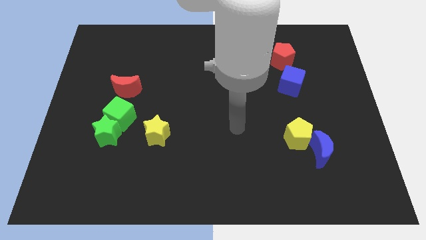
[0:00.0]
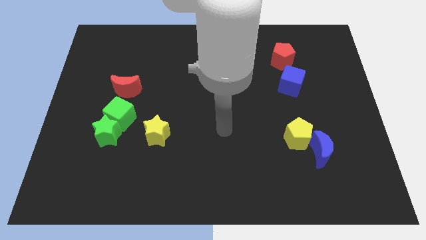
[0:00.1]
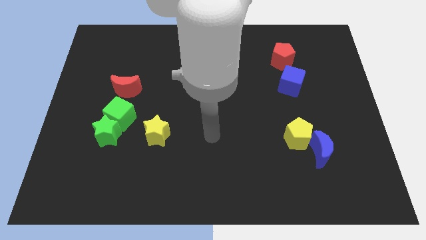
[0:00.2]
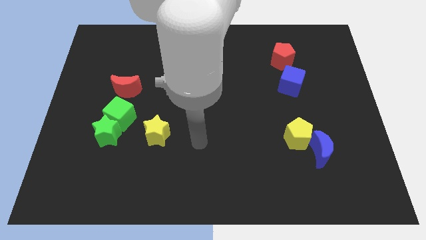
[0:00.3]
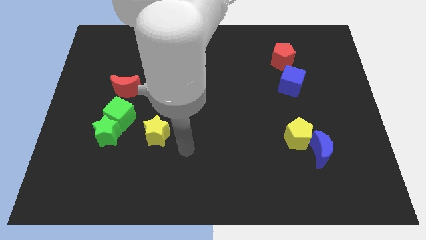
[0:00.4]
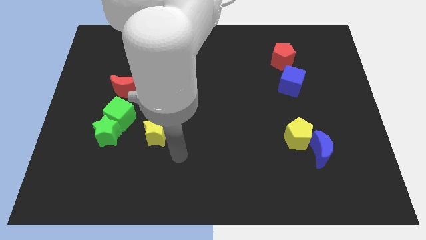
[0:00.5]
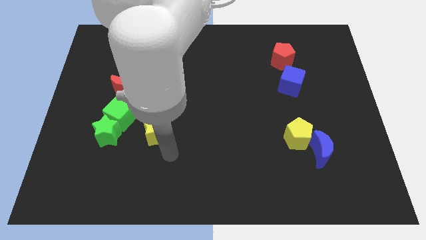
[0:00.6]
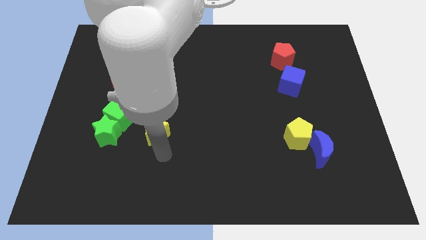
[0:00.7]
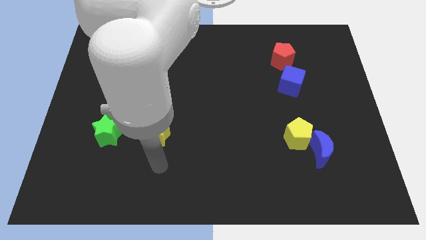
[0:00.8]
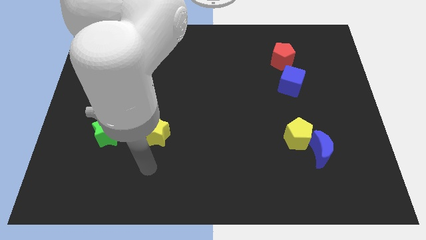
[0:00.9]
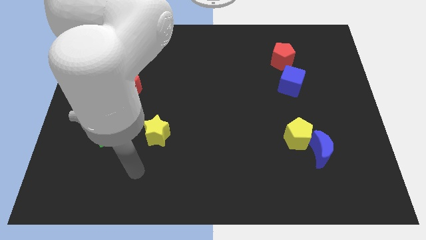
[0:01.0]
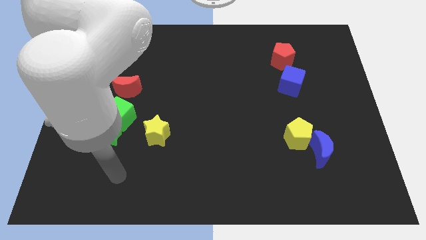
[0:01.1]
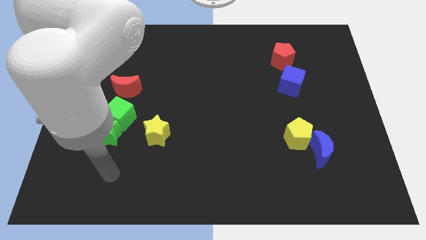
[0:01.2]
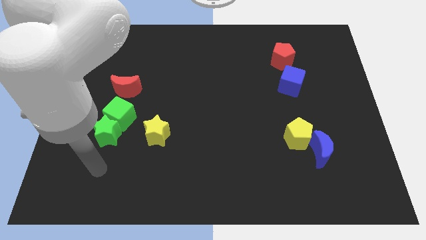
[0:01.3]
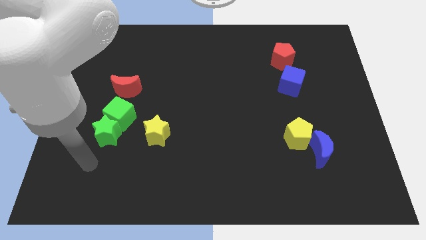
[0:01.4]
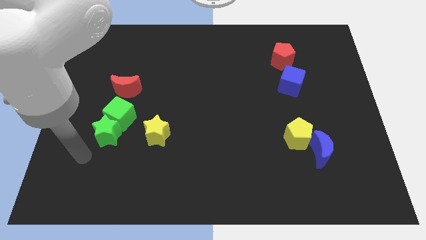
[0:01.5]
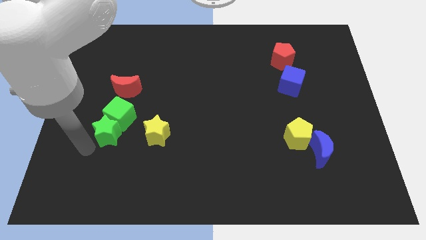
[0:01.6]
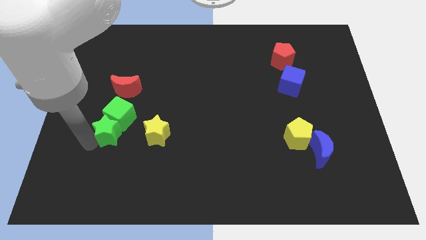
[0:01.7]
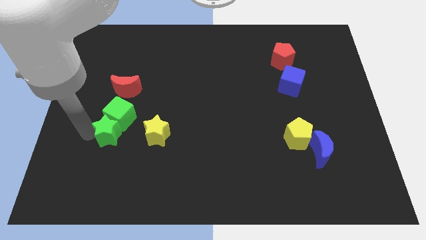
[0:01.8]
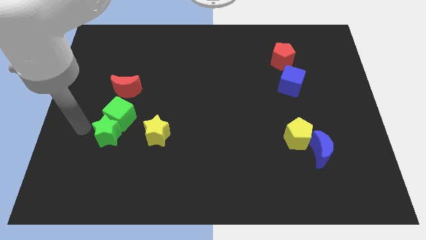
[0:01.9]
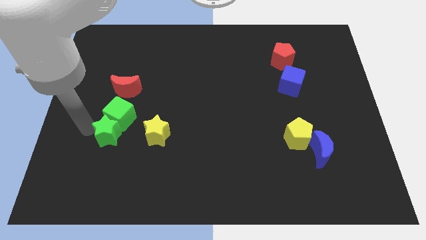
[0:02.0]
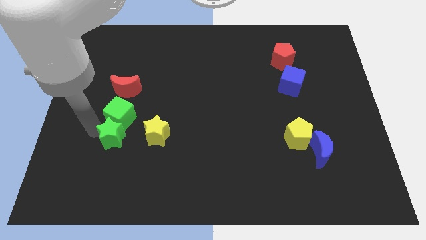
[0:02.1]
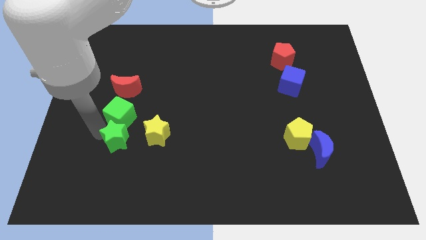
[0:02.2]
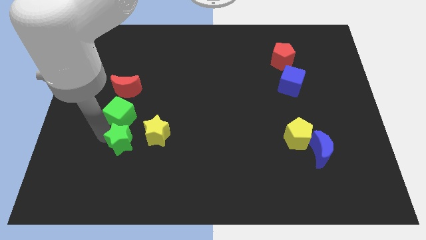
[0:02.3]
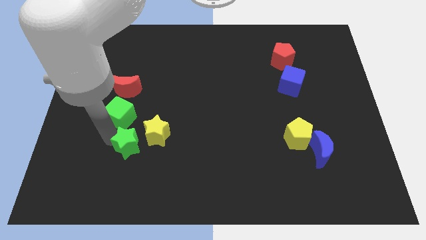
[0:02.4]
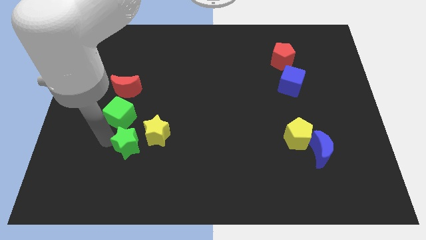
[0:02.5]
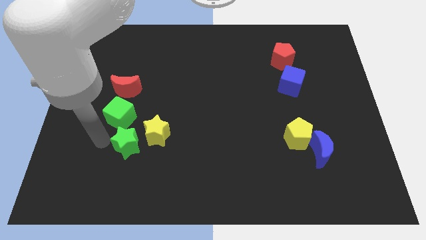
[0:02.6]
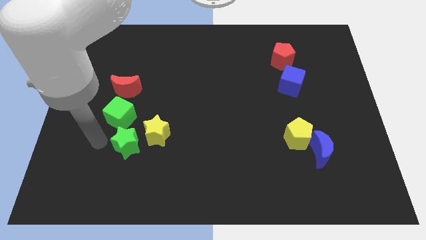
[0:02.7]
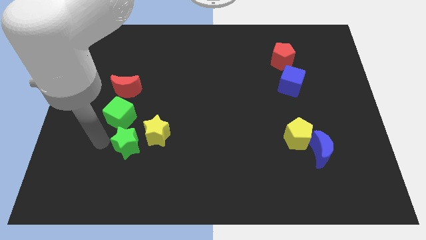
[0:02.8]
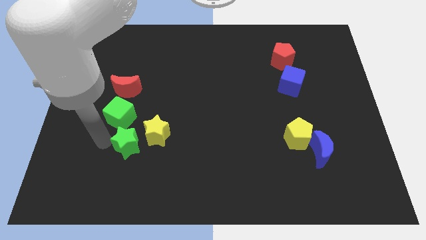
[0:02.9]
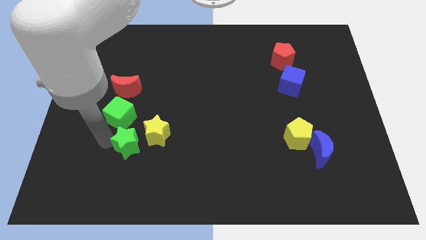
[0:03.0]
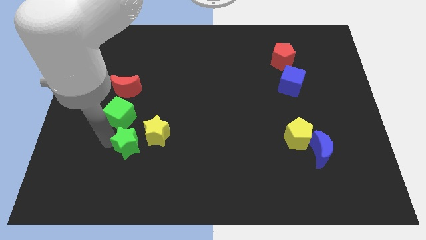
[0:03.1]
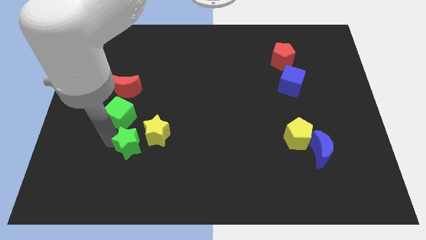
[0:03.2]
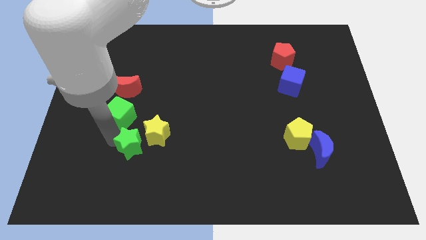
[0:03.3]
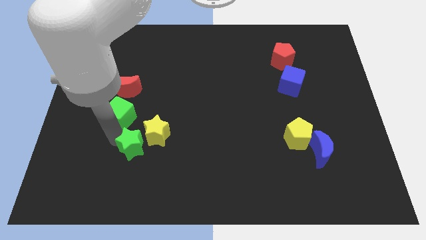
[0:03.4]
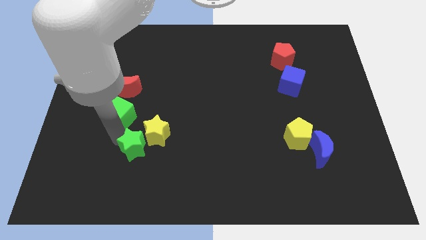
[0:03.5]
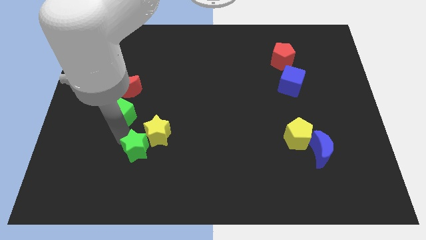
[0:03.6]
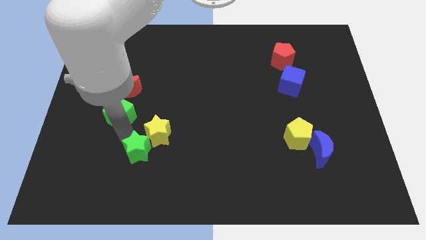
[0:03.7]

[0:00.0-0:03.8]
move the green star slightly right

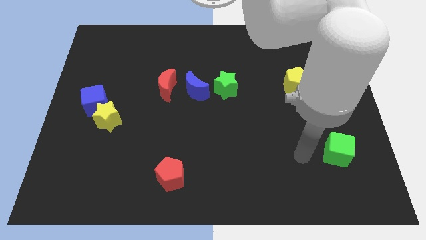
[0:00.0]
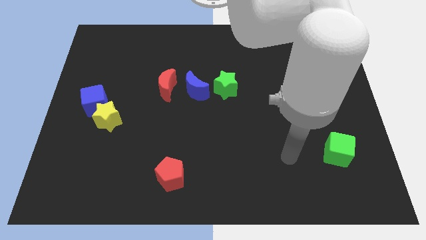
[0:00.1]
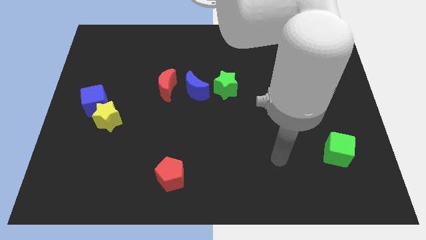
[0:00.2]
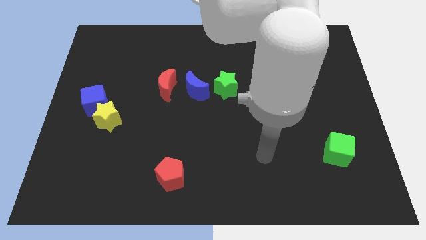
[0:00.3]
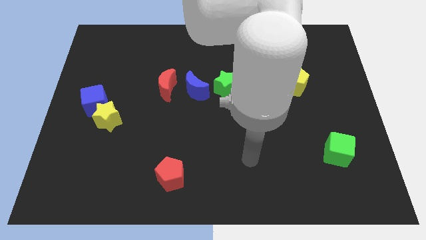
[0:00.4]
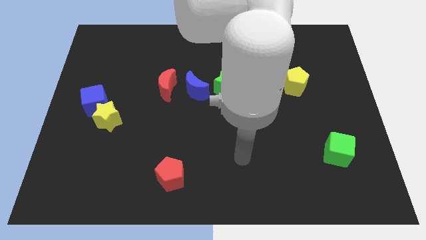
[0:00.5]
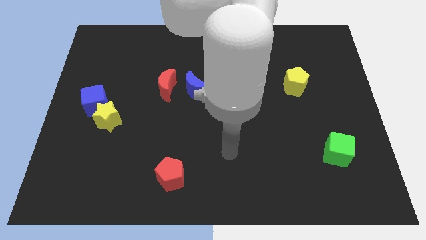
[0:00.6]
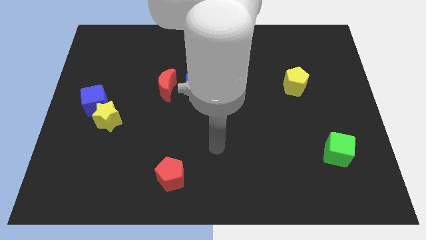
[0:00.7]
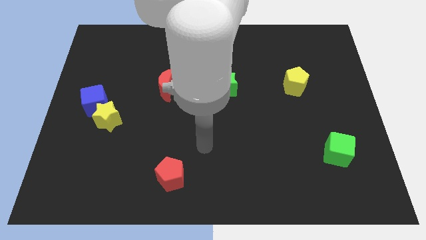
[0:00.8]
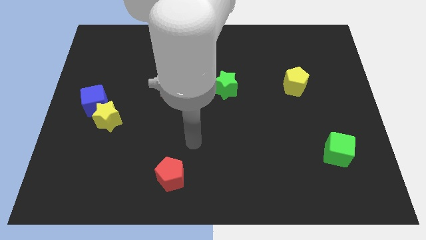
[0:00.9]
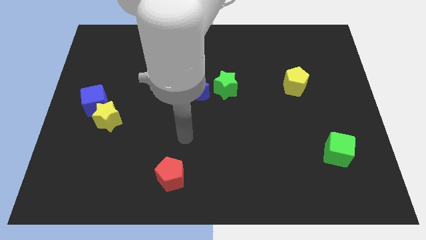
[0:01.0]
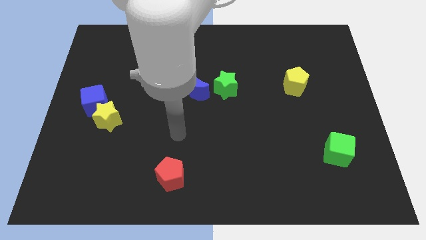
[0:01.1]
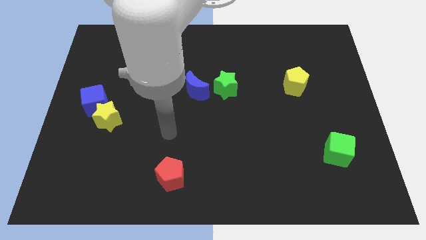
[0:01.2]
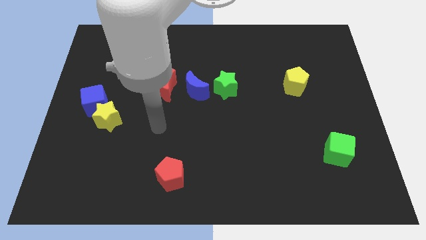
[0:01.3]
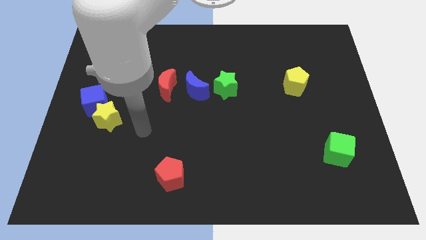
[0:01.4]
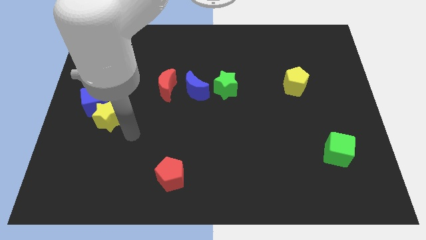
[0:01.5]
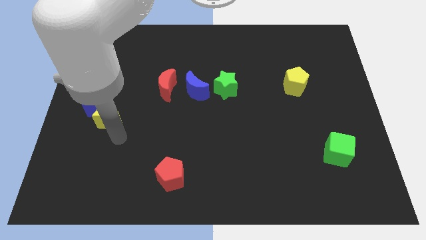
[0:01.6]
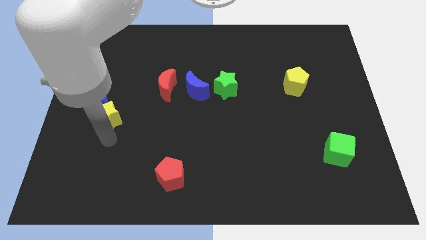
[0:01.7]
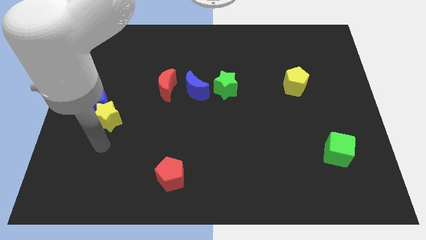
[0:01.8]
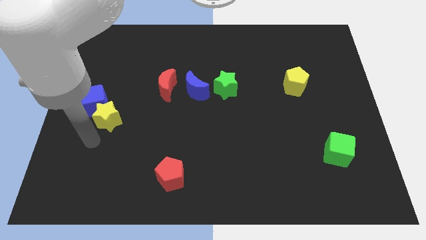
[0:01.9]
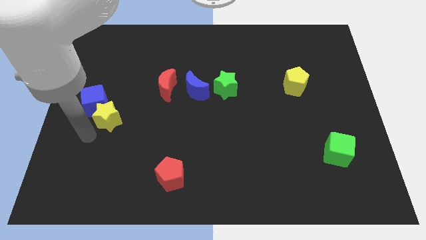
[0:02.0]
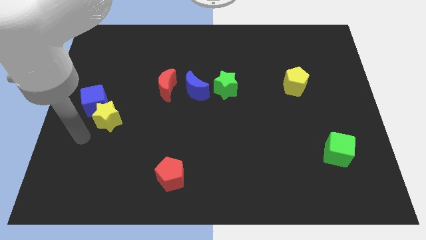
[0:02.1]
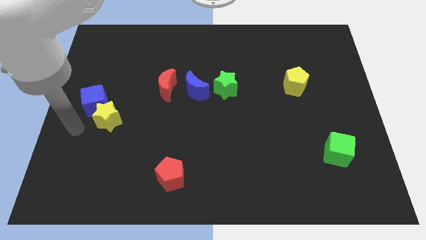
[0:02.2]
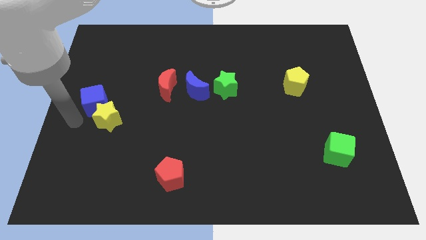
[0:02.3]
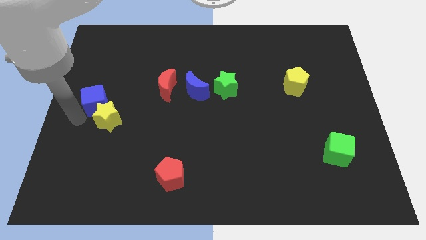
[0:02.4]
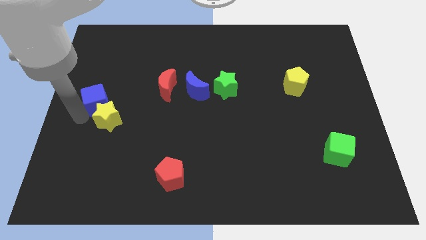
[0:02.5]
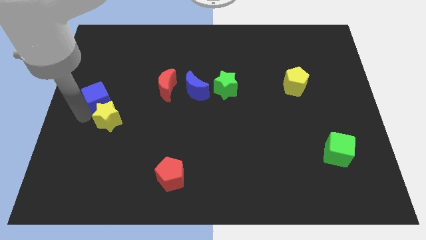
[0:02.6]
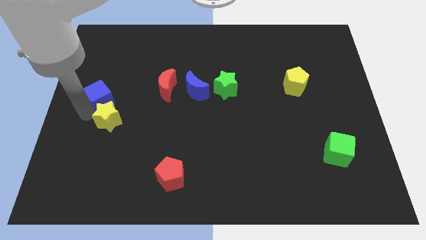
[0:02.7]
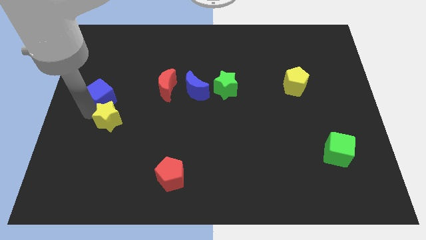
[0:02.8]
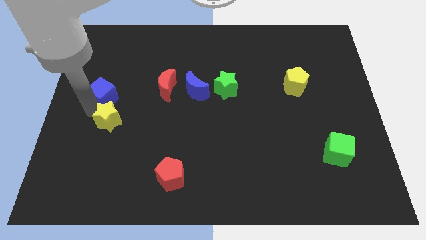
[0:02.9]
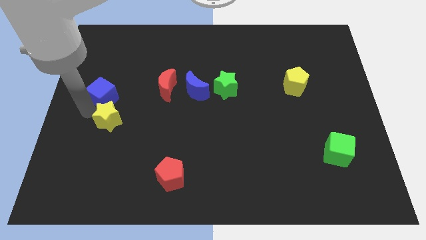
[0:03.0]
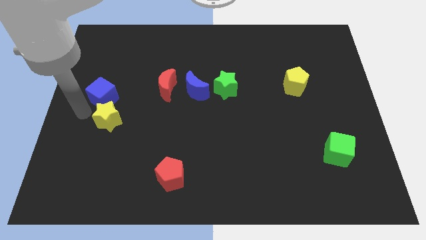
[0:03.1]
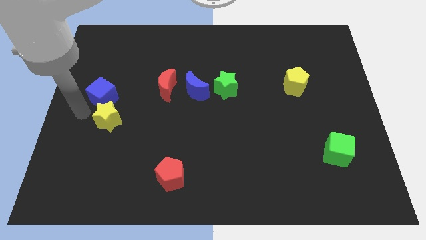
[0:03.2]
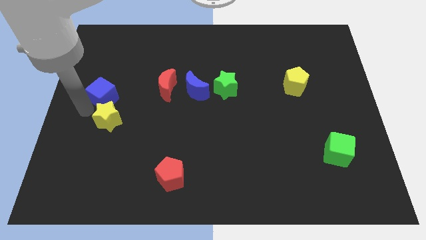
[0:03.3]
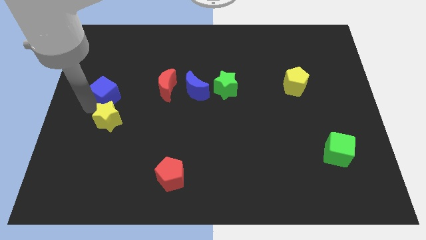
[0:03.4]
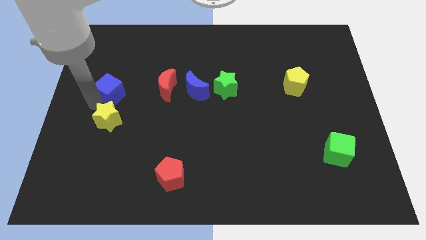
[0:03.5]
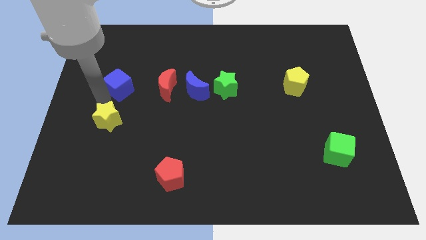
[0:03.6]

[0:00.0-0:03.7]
push the blue cube a little bit diagonally upwards and right

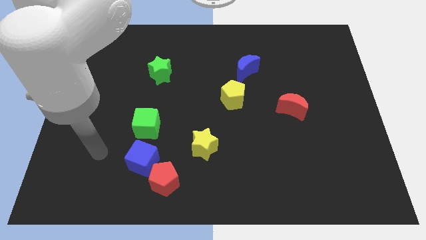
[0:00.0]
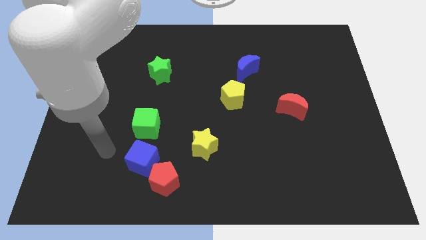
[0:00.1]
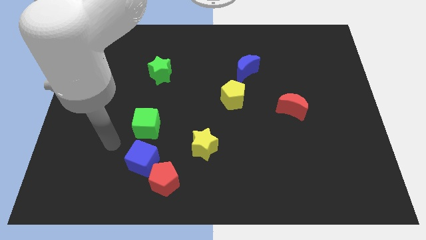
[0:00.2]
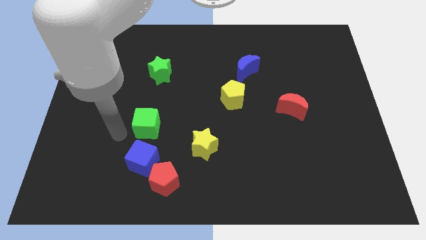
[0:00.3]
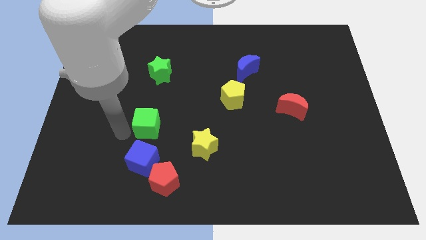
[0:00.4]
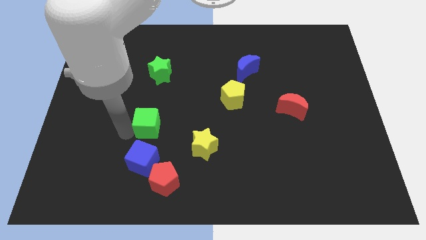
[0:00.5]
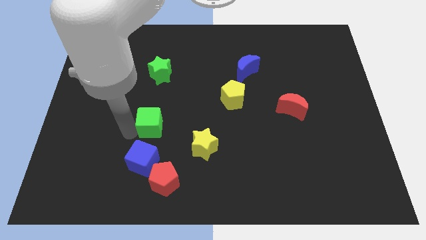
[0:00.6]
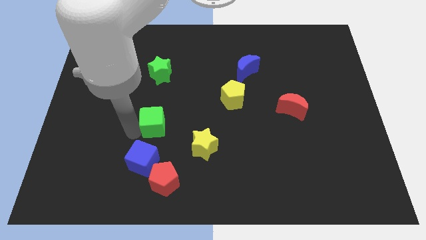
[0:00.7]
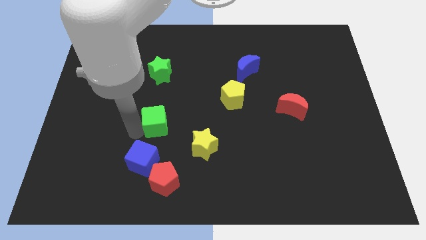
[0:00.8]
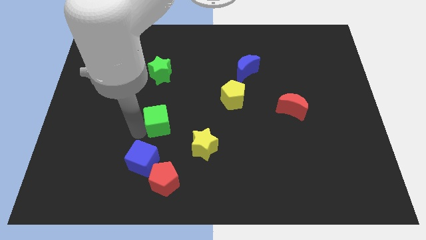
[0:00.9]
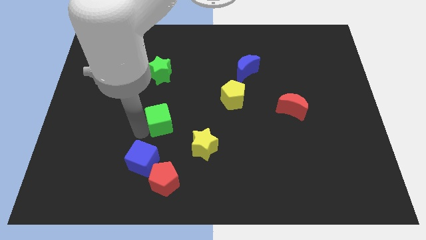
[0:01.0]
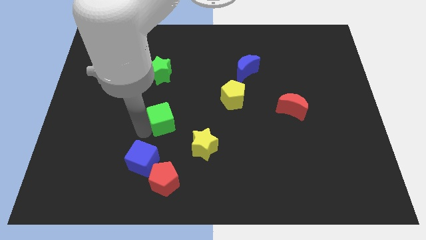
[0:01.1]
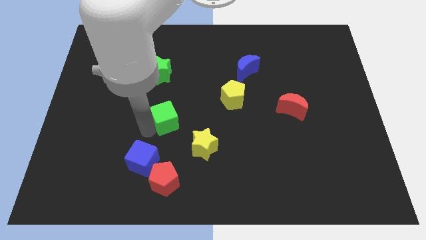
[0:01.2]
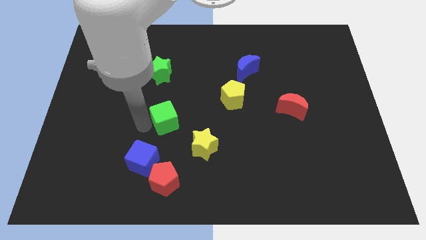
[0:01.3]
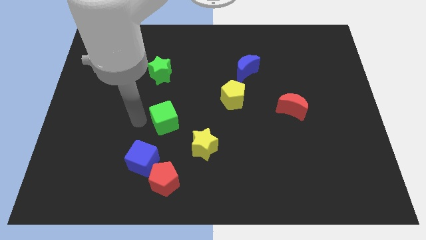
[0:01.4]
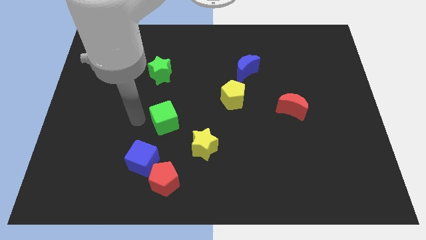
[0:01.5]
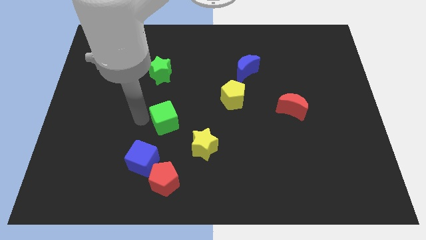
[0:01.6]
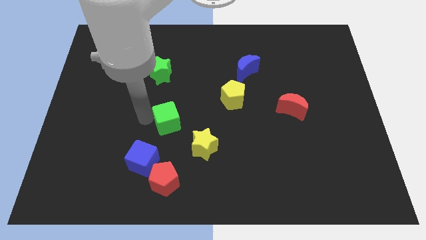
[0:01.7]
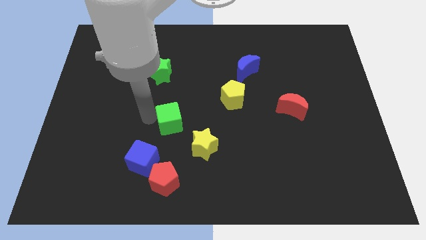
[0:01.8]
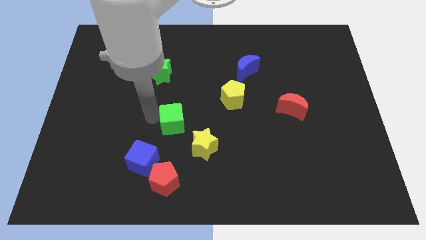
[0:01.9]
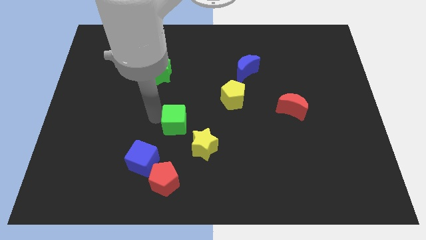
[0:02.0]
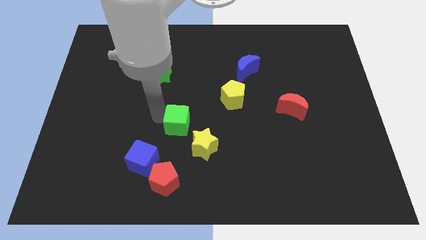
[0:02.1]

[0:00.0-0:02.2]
push the green cube right a bit
